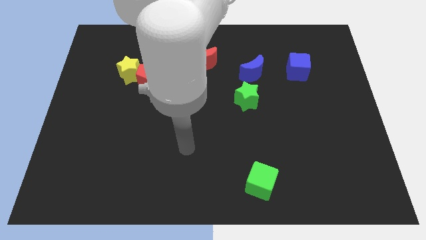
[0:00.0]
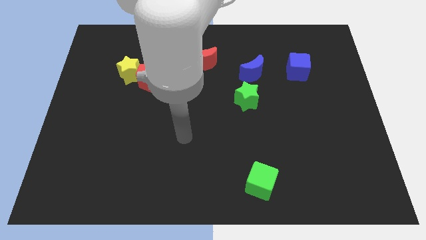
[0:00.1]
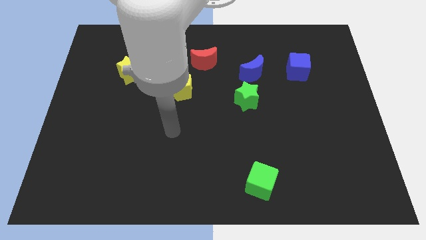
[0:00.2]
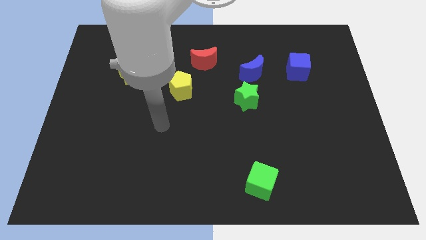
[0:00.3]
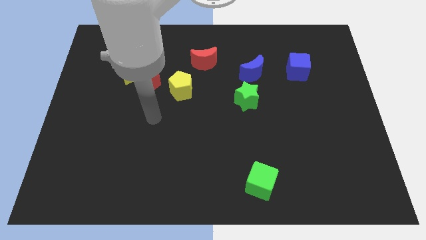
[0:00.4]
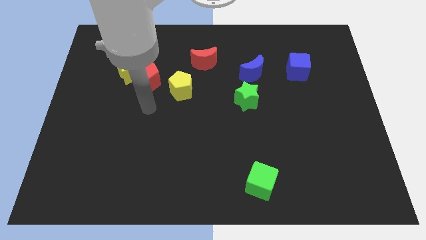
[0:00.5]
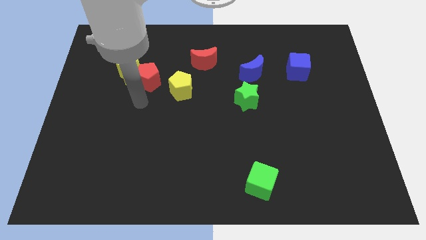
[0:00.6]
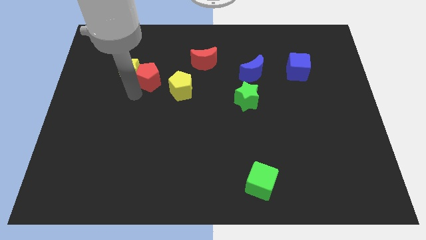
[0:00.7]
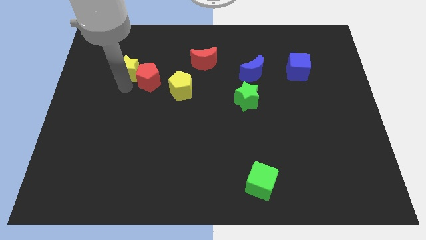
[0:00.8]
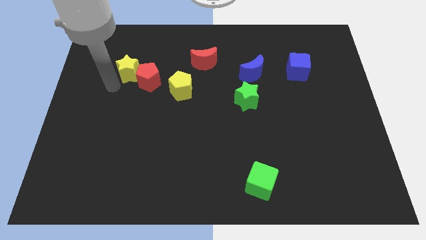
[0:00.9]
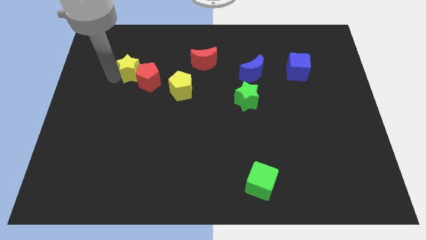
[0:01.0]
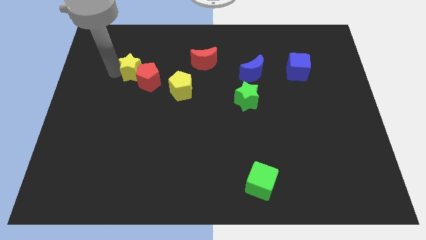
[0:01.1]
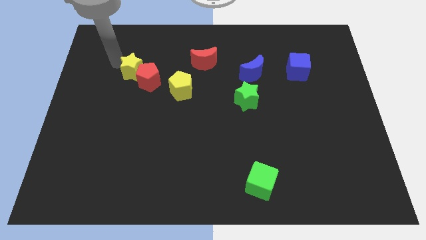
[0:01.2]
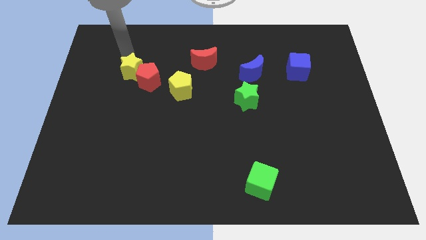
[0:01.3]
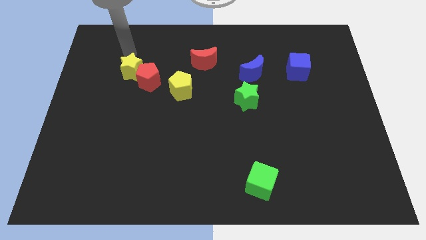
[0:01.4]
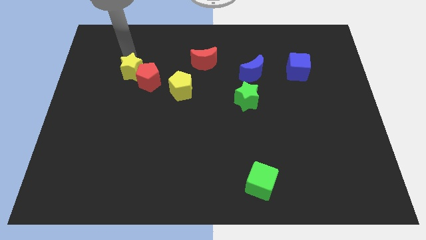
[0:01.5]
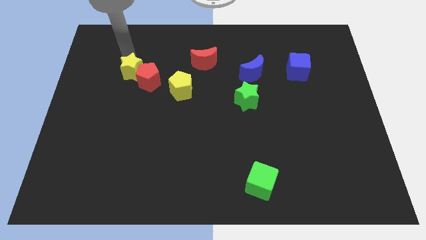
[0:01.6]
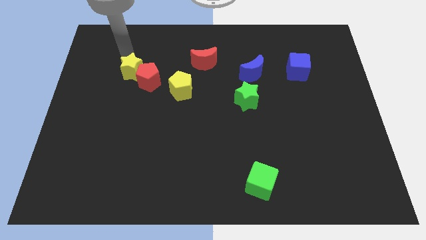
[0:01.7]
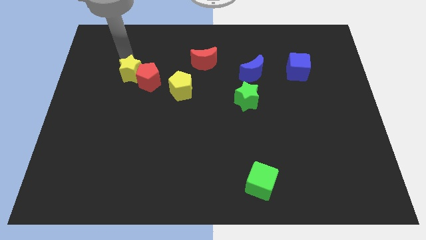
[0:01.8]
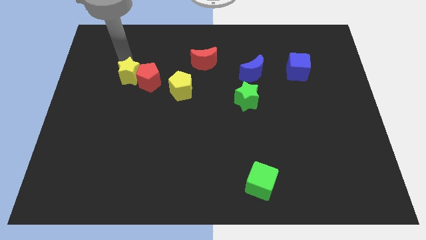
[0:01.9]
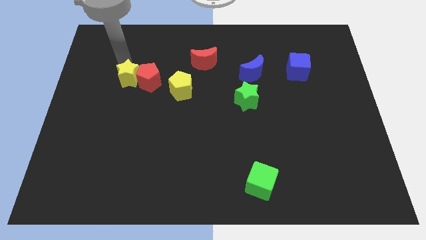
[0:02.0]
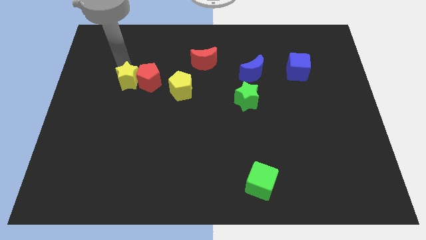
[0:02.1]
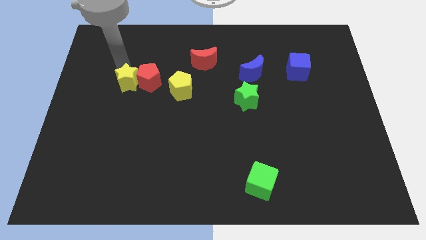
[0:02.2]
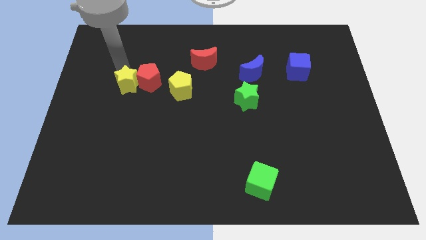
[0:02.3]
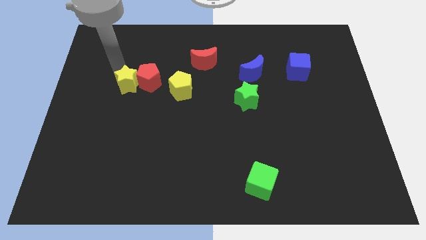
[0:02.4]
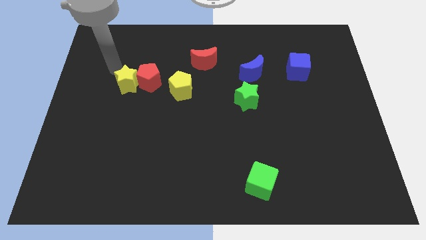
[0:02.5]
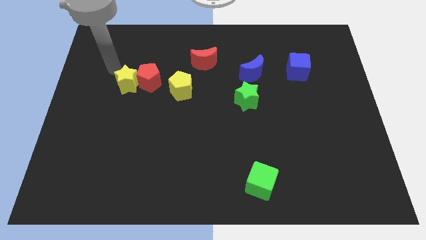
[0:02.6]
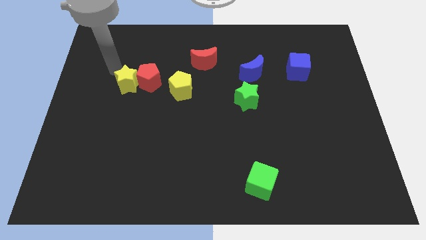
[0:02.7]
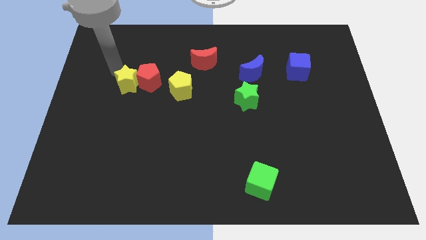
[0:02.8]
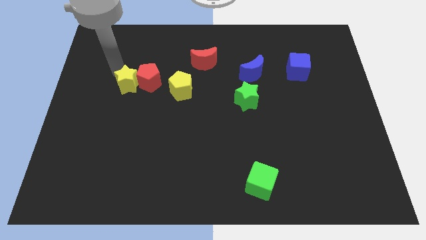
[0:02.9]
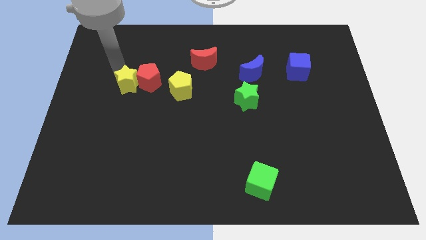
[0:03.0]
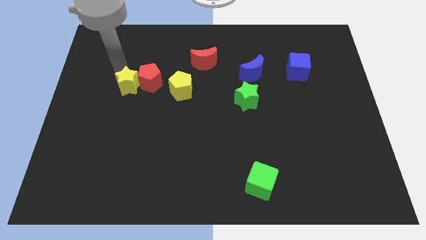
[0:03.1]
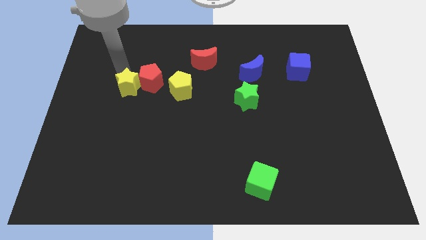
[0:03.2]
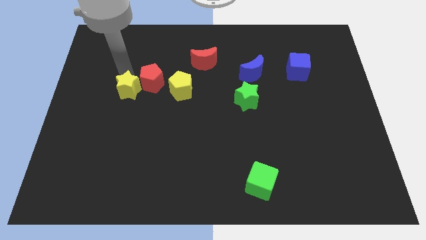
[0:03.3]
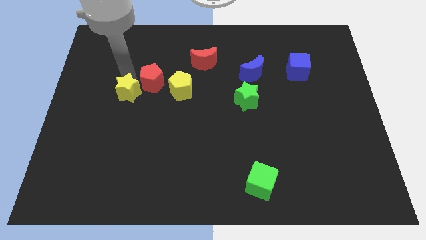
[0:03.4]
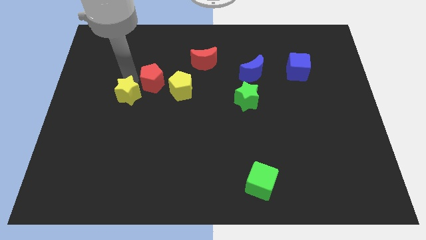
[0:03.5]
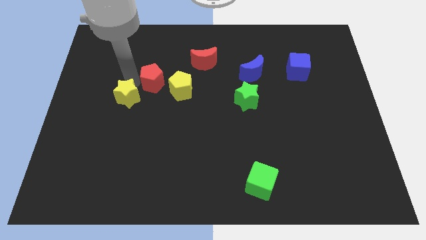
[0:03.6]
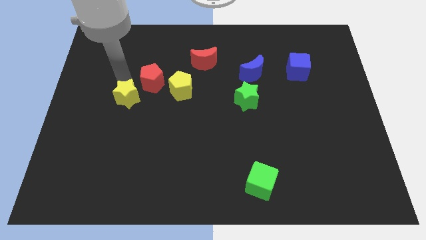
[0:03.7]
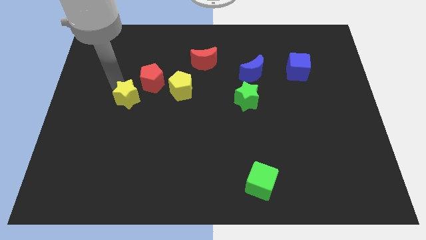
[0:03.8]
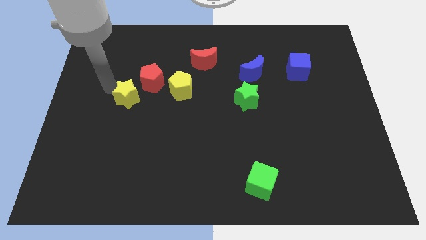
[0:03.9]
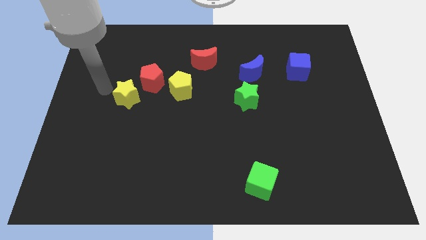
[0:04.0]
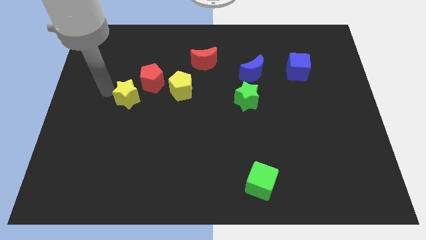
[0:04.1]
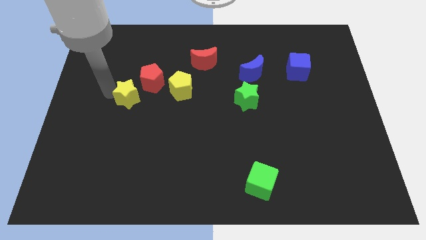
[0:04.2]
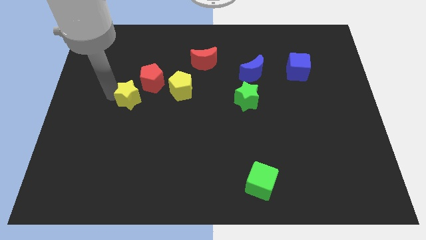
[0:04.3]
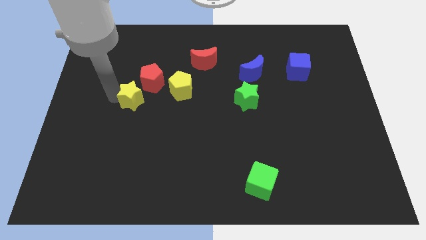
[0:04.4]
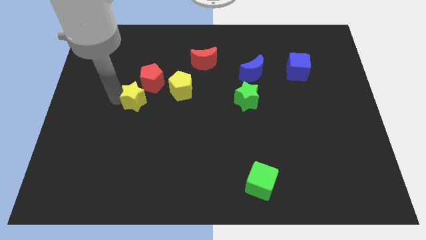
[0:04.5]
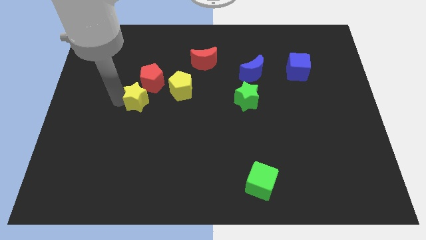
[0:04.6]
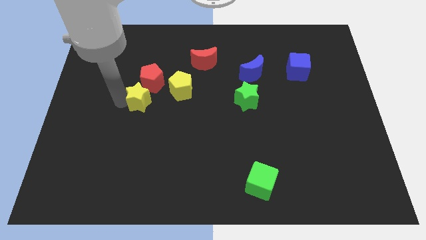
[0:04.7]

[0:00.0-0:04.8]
slide the yellow star to the bottom left side of the yellow pentagon

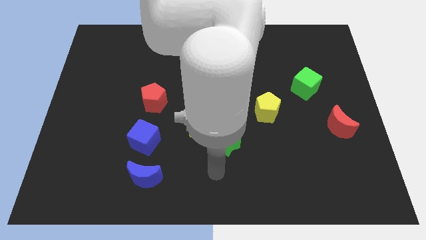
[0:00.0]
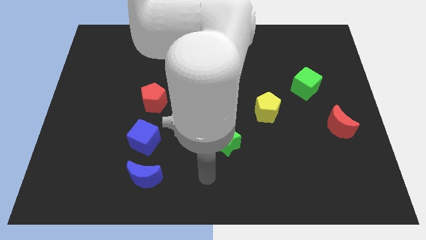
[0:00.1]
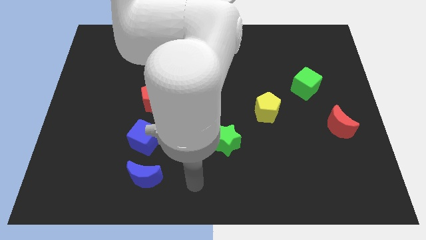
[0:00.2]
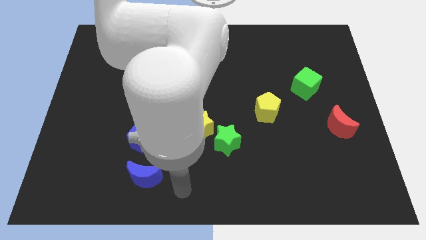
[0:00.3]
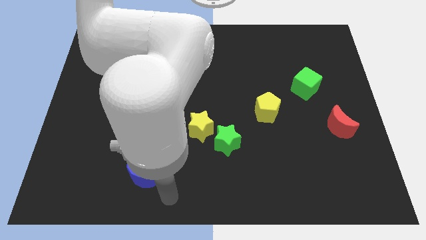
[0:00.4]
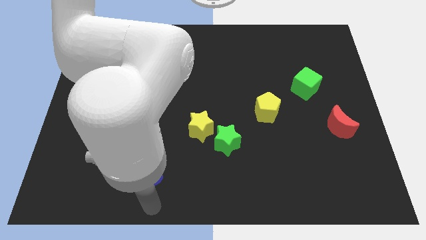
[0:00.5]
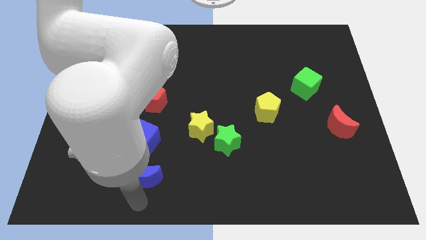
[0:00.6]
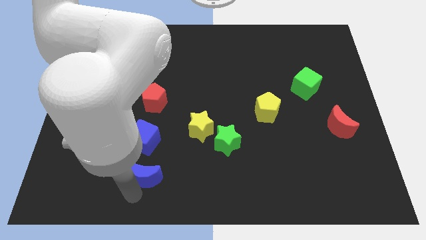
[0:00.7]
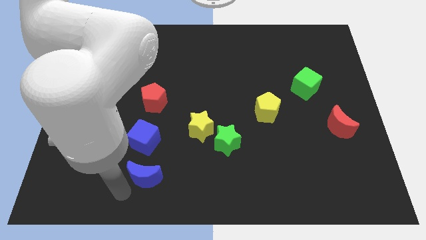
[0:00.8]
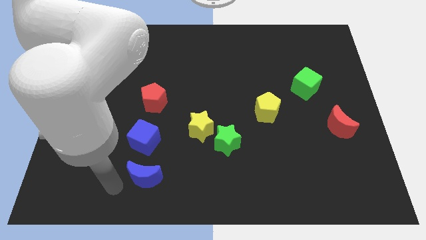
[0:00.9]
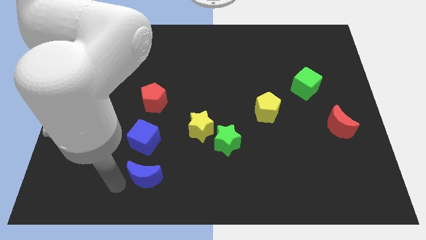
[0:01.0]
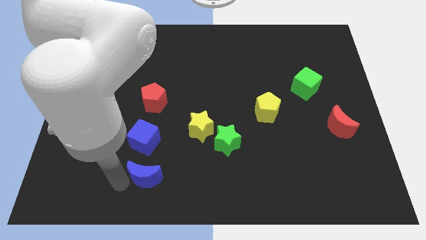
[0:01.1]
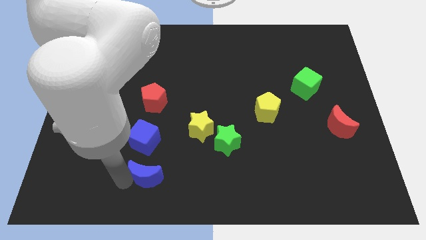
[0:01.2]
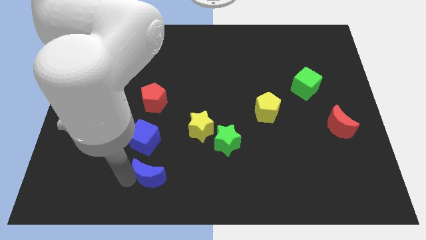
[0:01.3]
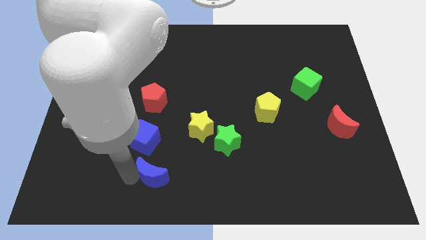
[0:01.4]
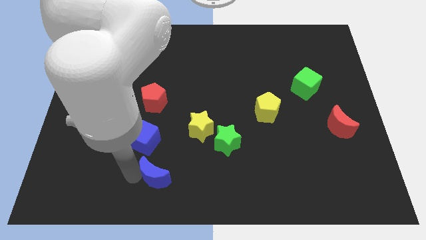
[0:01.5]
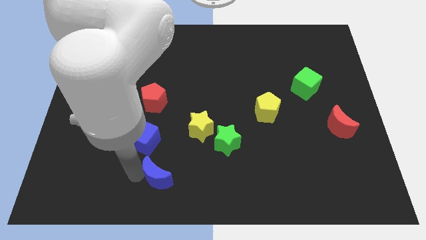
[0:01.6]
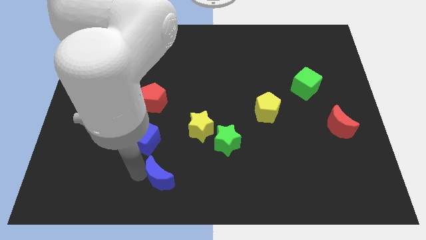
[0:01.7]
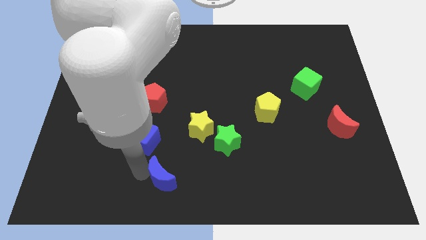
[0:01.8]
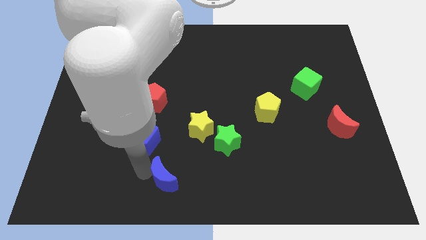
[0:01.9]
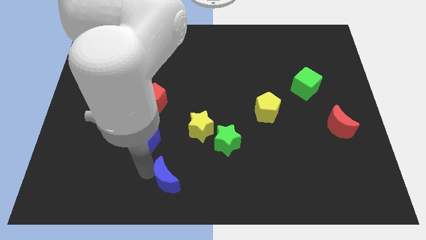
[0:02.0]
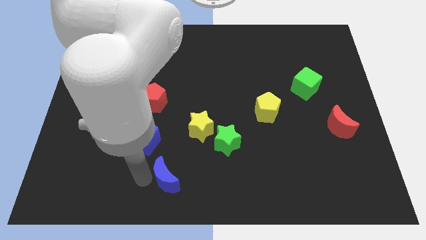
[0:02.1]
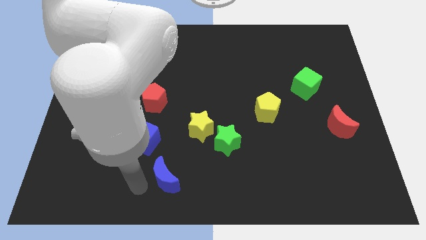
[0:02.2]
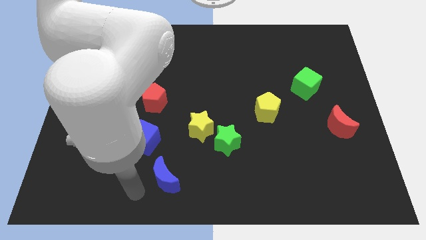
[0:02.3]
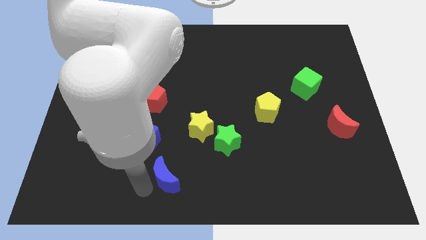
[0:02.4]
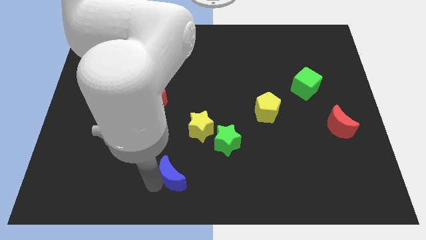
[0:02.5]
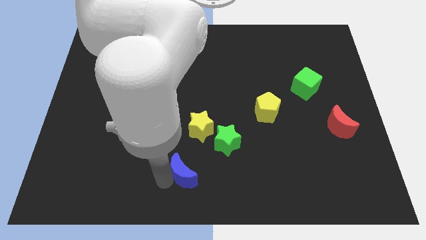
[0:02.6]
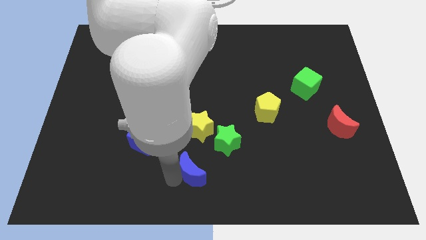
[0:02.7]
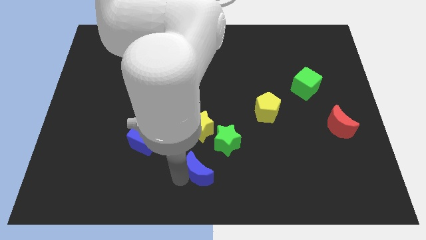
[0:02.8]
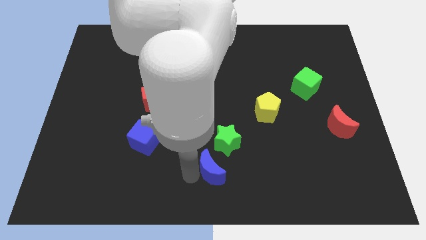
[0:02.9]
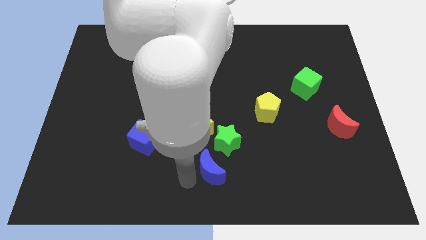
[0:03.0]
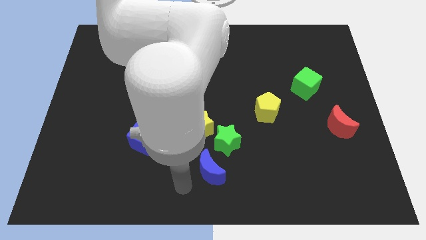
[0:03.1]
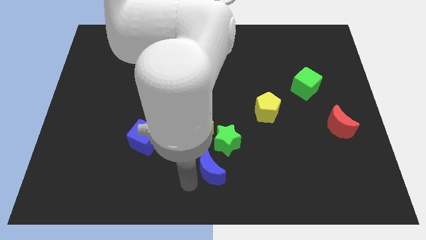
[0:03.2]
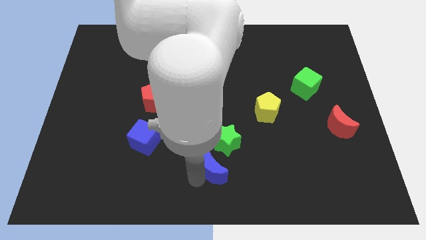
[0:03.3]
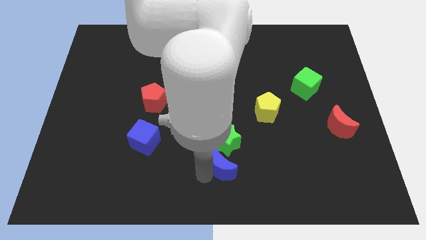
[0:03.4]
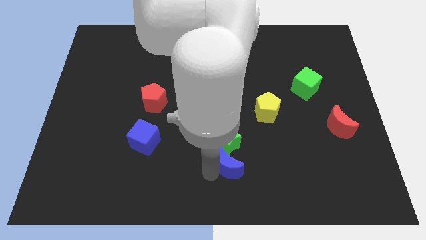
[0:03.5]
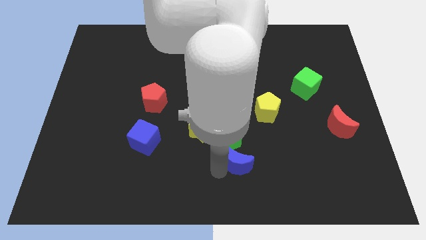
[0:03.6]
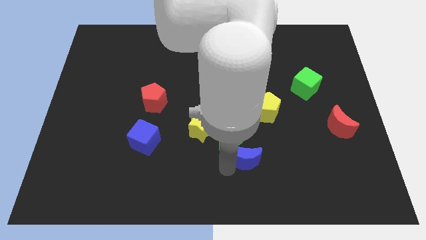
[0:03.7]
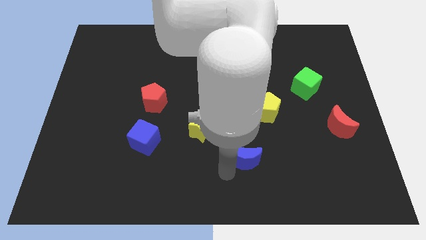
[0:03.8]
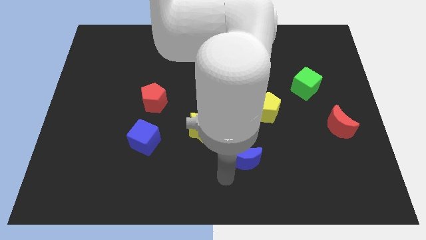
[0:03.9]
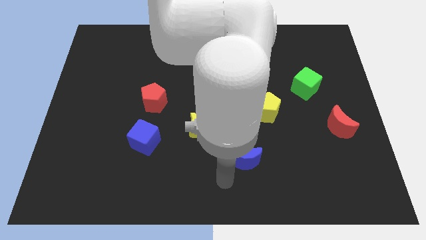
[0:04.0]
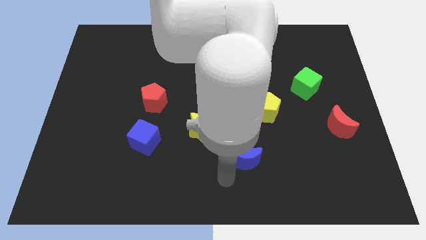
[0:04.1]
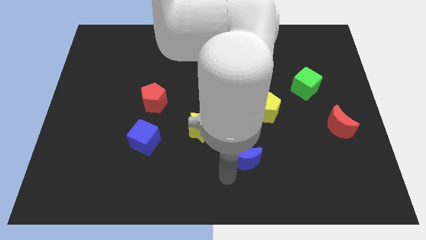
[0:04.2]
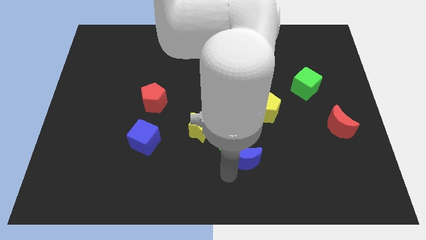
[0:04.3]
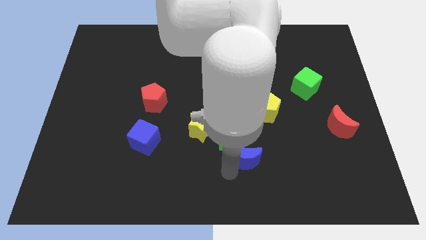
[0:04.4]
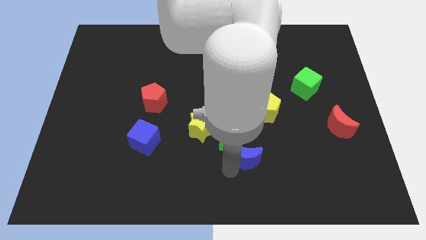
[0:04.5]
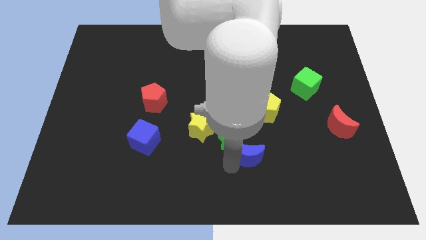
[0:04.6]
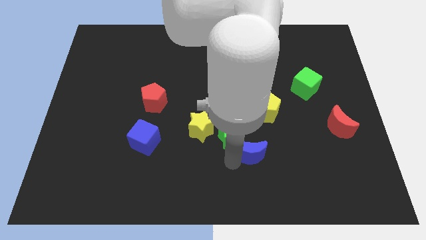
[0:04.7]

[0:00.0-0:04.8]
slide the blue moon just right of the green star
